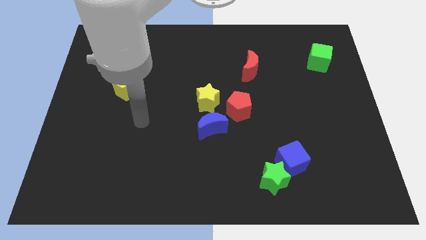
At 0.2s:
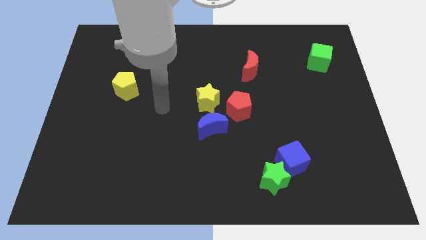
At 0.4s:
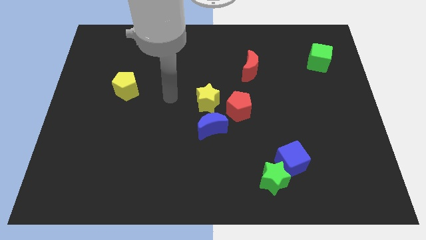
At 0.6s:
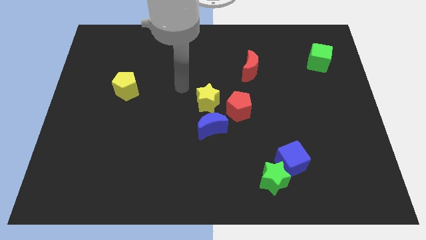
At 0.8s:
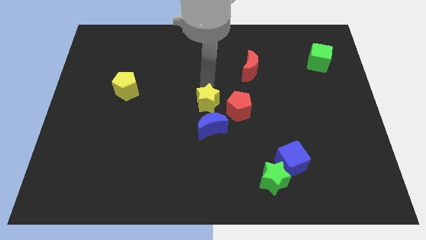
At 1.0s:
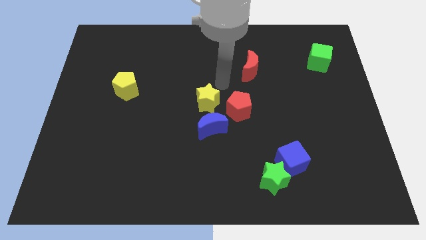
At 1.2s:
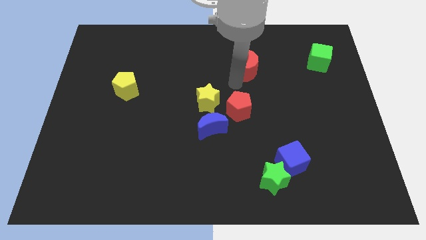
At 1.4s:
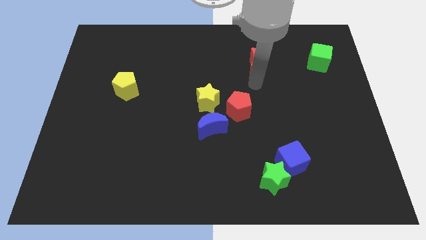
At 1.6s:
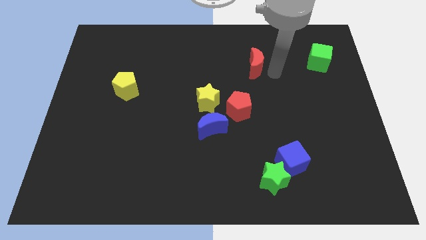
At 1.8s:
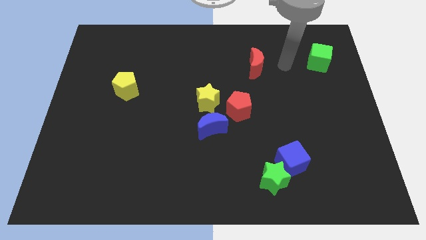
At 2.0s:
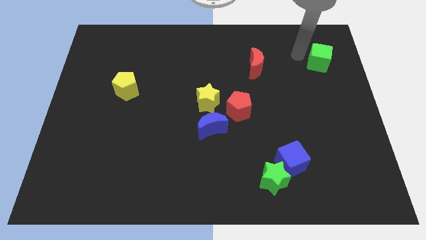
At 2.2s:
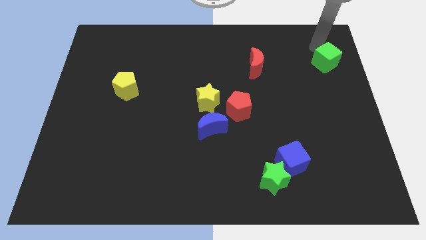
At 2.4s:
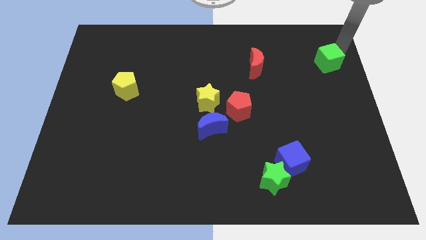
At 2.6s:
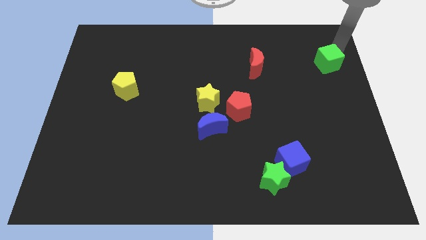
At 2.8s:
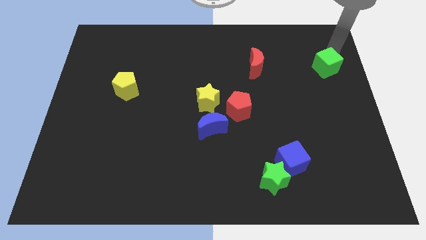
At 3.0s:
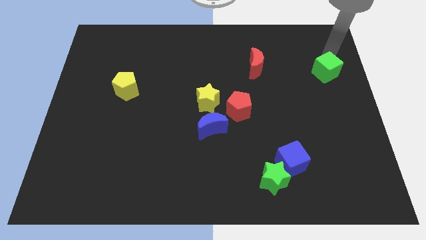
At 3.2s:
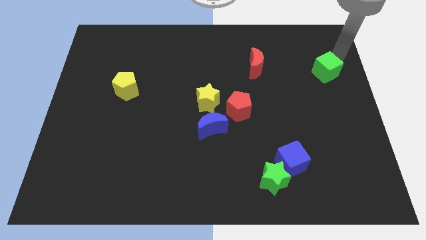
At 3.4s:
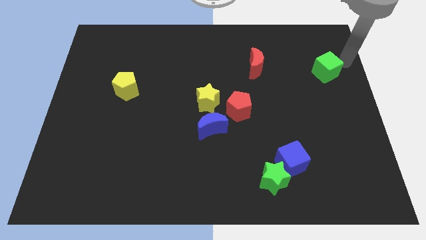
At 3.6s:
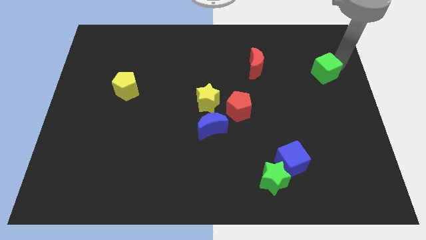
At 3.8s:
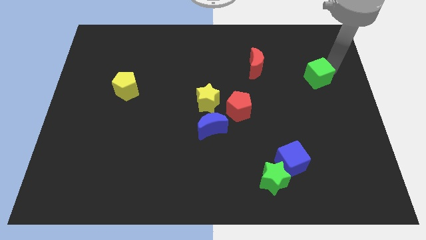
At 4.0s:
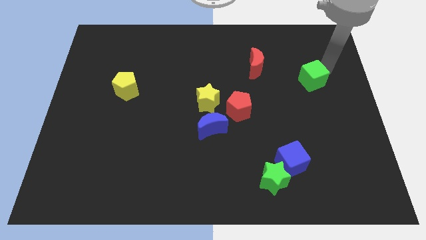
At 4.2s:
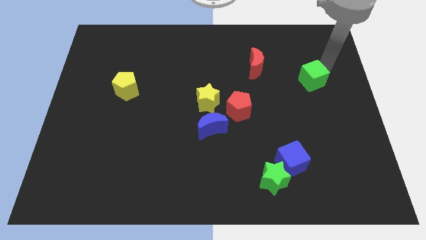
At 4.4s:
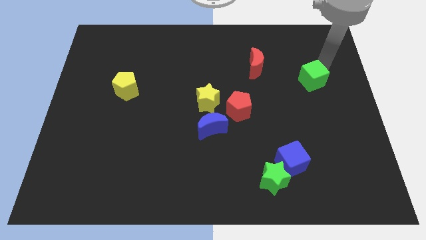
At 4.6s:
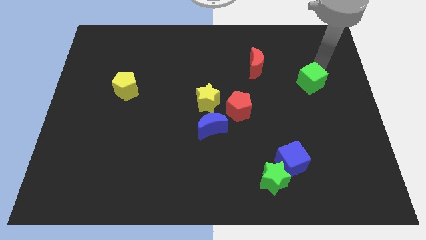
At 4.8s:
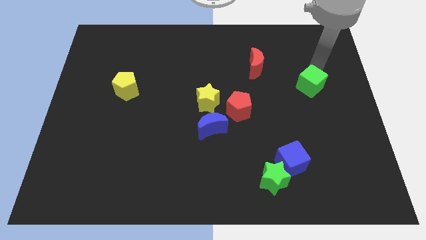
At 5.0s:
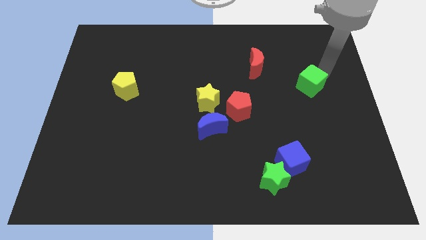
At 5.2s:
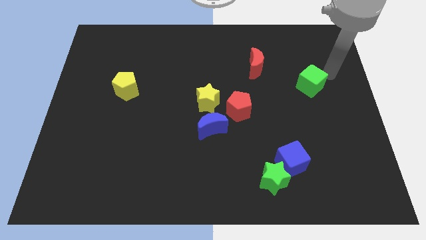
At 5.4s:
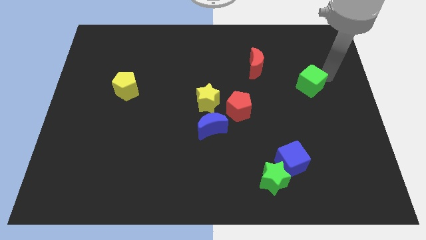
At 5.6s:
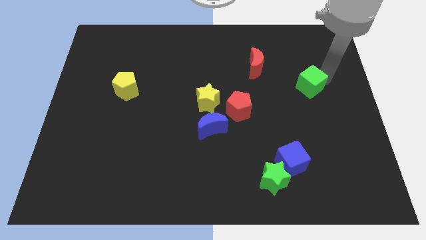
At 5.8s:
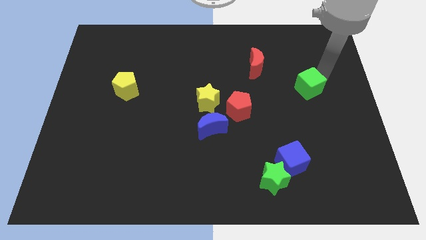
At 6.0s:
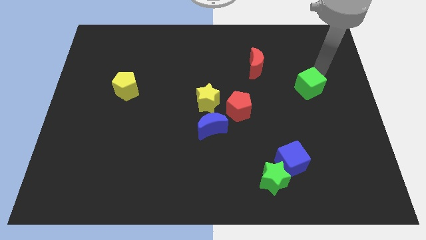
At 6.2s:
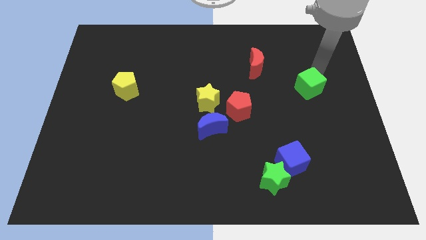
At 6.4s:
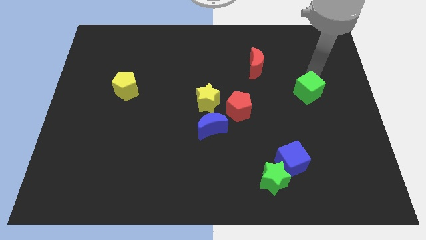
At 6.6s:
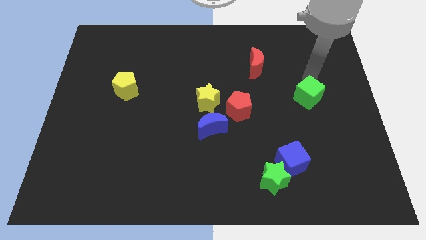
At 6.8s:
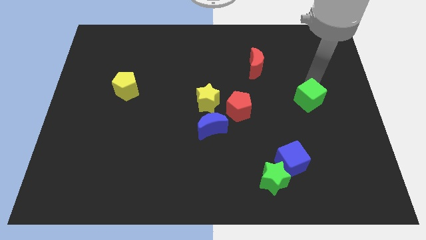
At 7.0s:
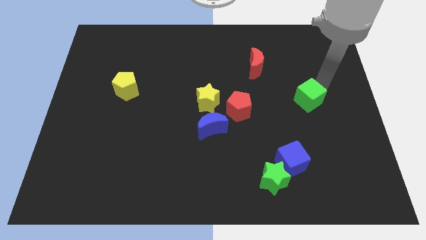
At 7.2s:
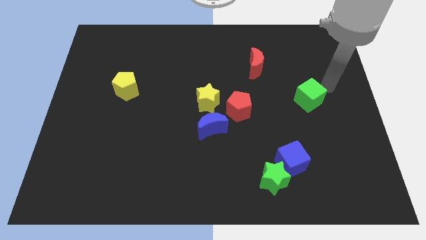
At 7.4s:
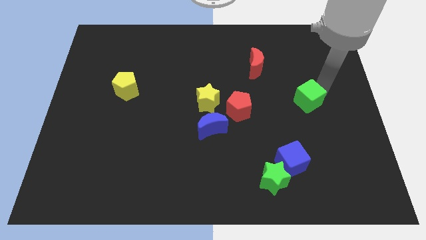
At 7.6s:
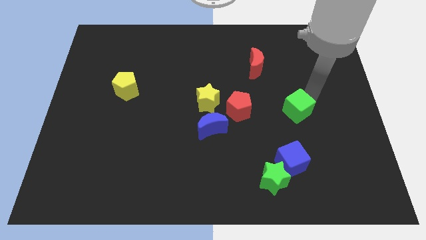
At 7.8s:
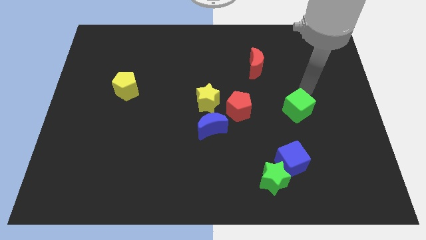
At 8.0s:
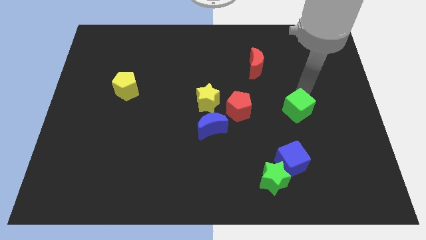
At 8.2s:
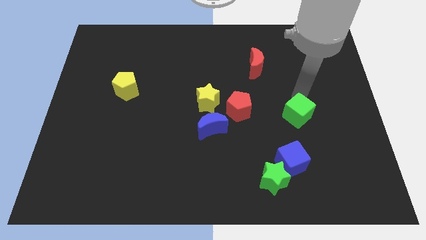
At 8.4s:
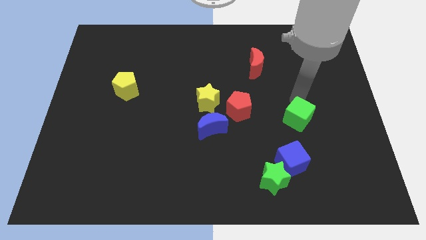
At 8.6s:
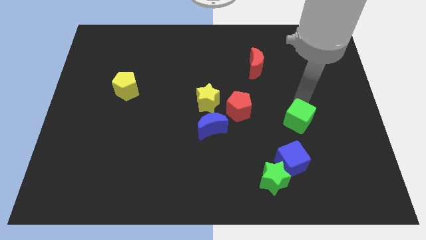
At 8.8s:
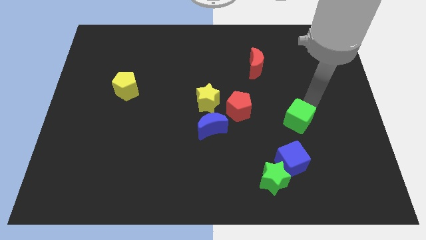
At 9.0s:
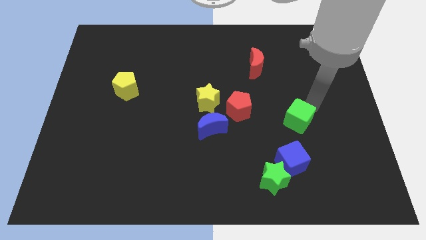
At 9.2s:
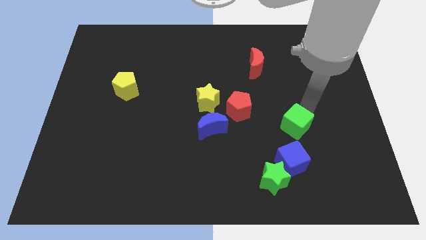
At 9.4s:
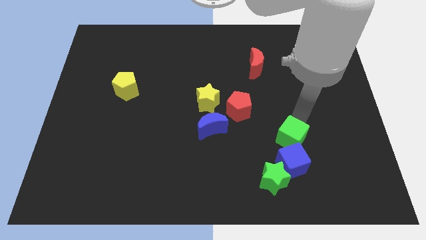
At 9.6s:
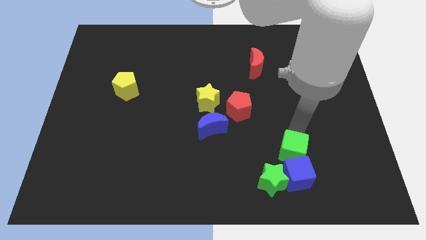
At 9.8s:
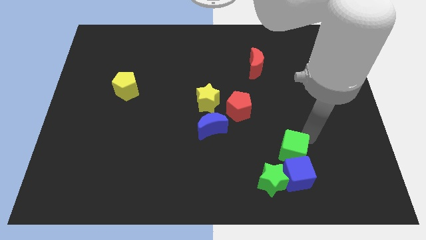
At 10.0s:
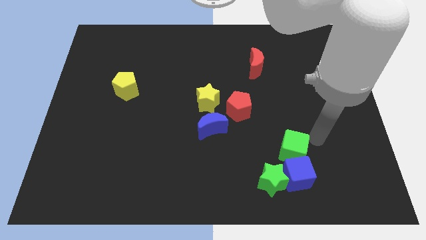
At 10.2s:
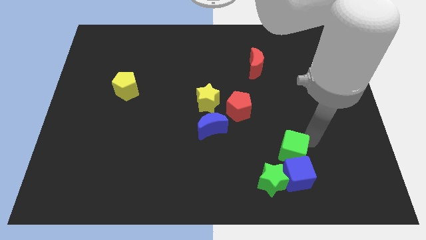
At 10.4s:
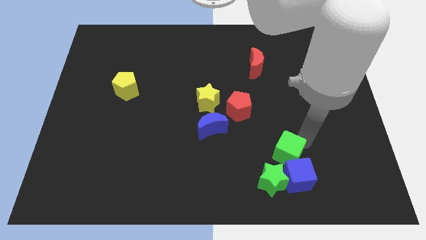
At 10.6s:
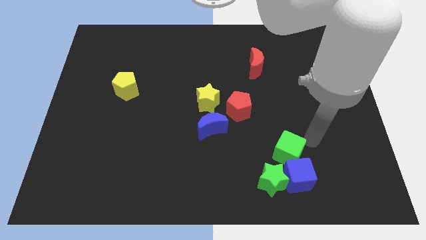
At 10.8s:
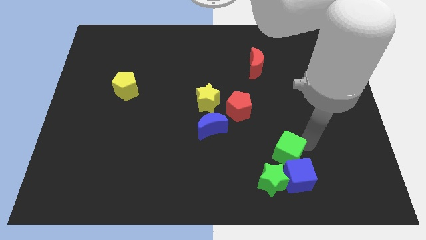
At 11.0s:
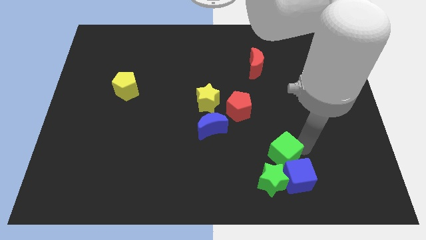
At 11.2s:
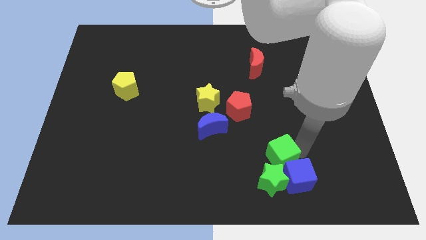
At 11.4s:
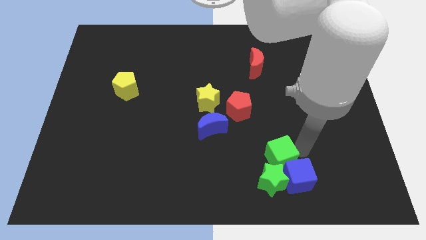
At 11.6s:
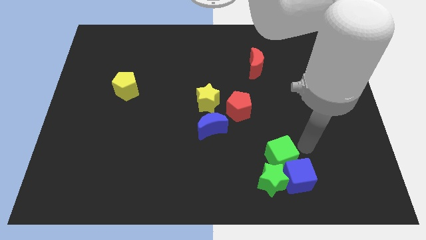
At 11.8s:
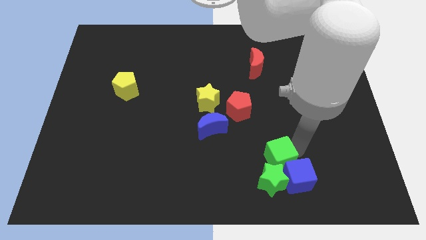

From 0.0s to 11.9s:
move the green cube close to the green star

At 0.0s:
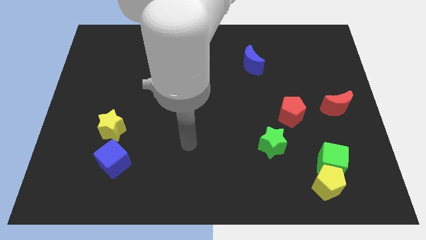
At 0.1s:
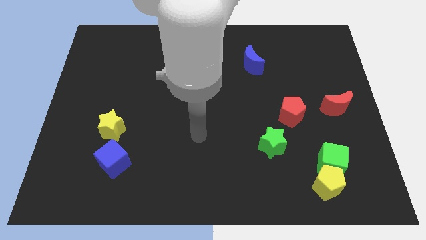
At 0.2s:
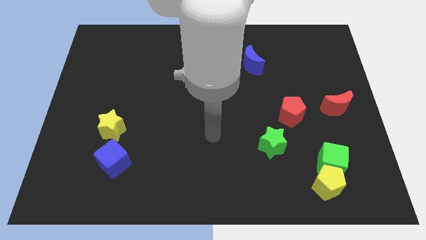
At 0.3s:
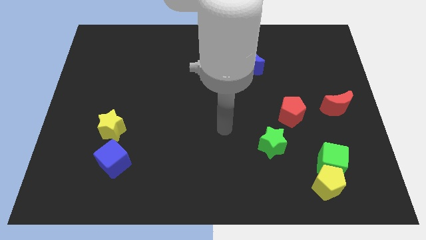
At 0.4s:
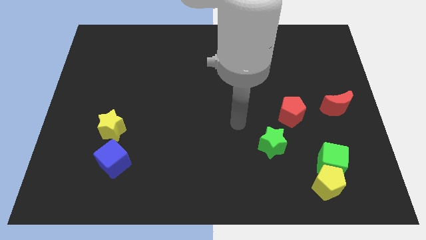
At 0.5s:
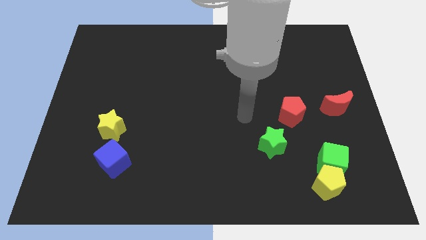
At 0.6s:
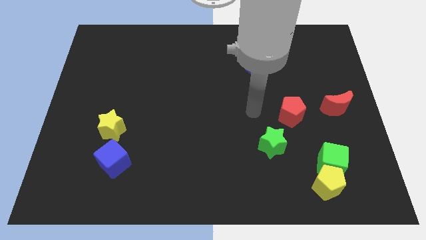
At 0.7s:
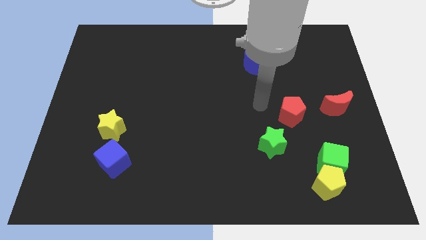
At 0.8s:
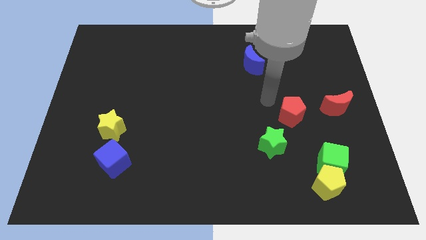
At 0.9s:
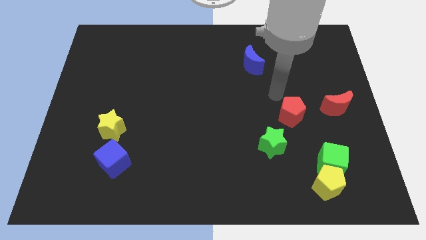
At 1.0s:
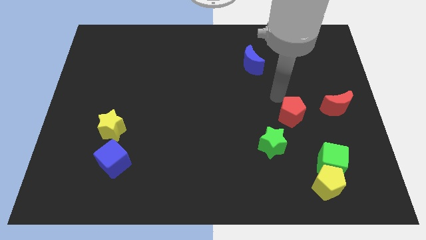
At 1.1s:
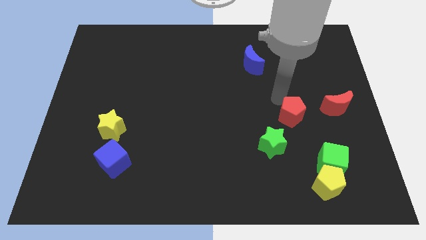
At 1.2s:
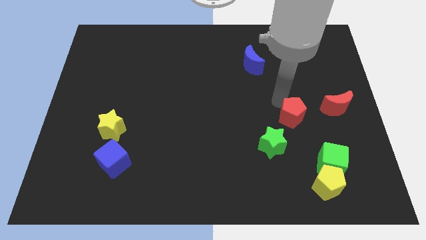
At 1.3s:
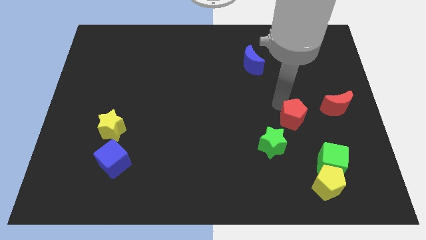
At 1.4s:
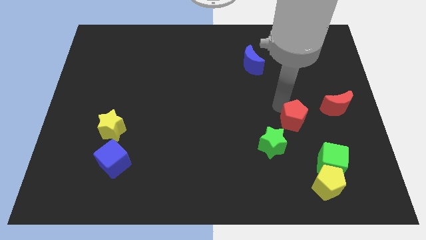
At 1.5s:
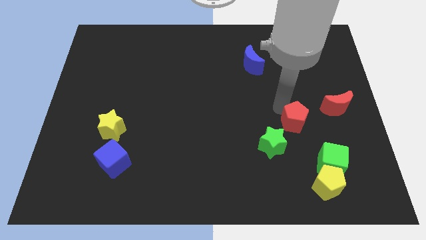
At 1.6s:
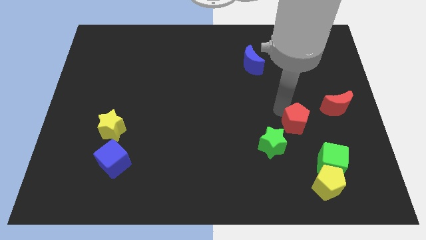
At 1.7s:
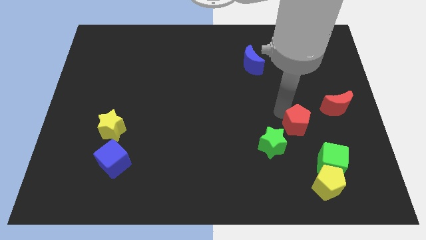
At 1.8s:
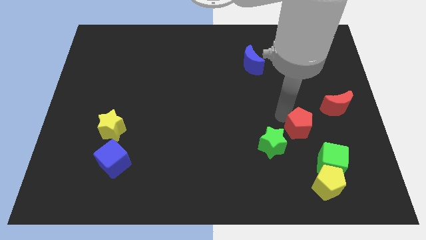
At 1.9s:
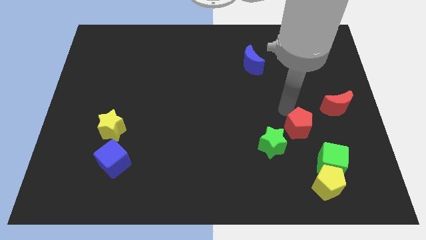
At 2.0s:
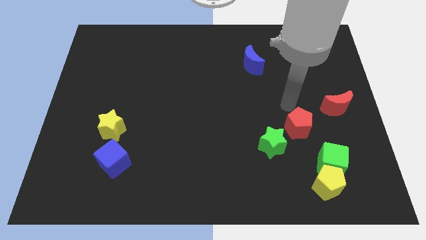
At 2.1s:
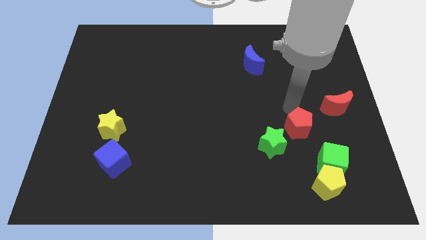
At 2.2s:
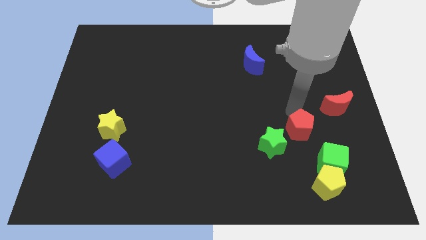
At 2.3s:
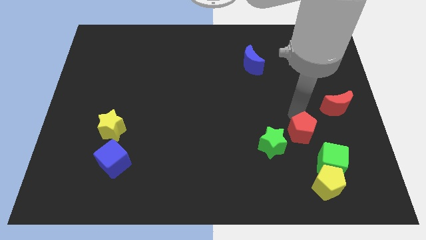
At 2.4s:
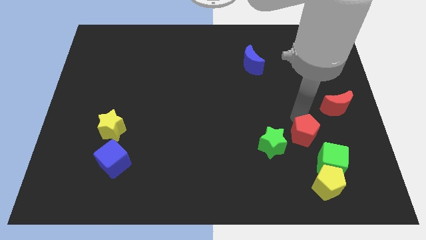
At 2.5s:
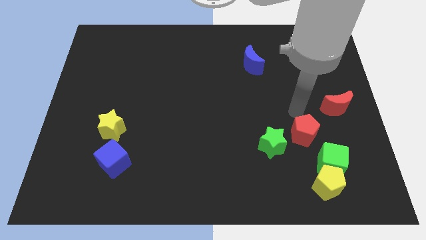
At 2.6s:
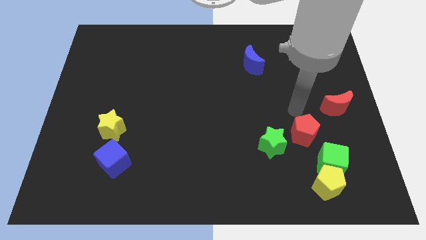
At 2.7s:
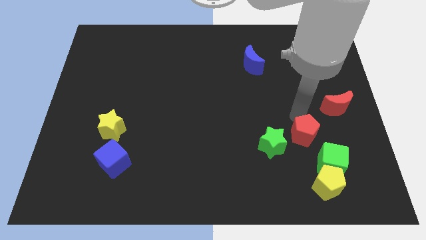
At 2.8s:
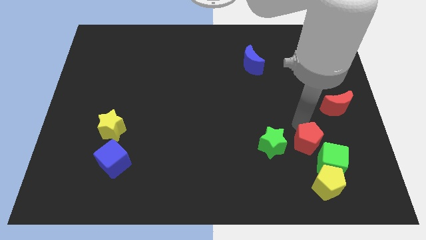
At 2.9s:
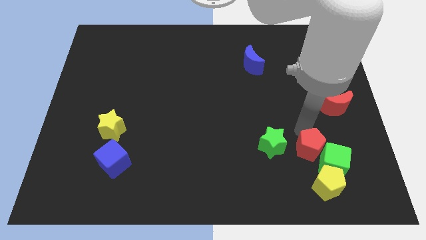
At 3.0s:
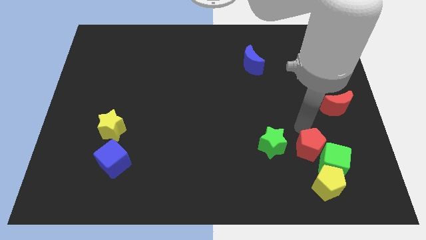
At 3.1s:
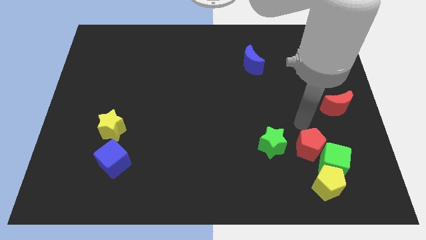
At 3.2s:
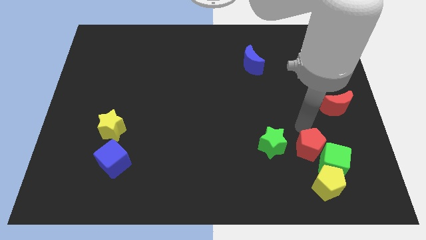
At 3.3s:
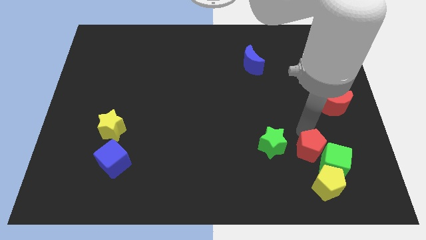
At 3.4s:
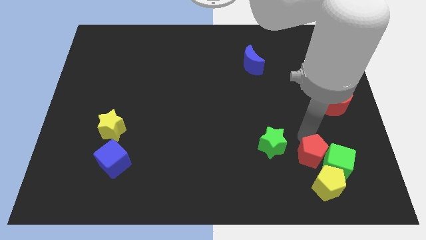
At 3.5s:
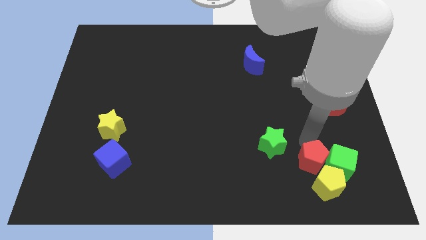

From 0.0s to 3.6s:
push the red pentagon to the yellow pentagon
